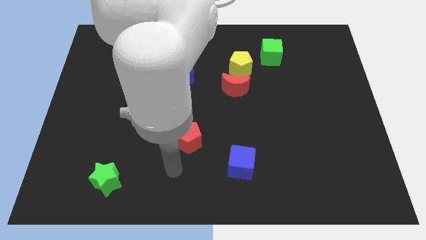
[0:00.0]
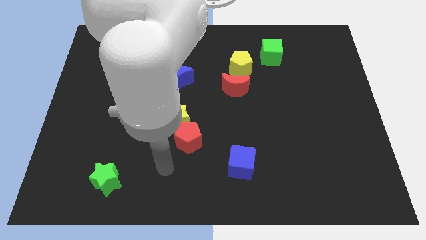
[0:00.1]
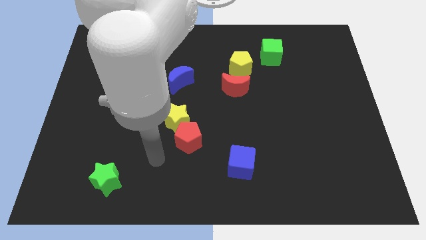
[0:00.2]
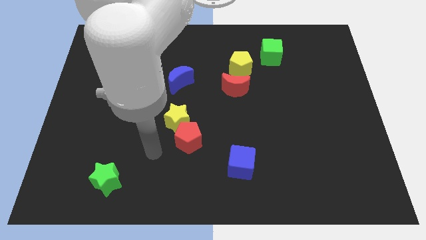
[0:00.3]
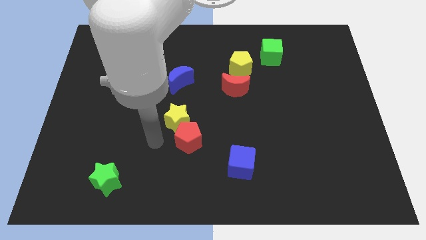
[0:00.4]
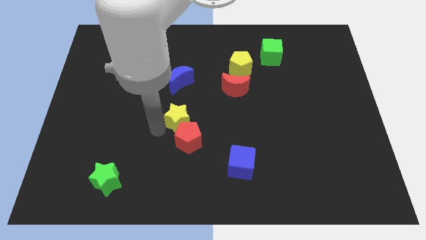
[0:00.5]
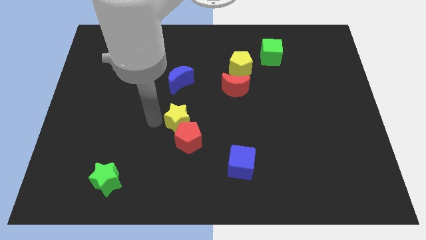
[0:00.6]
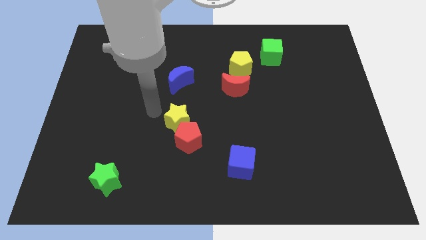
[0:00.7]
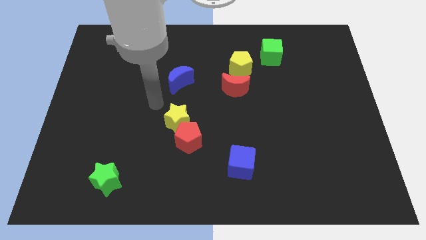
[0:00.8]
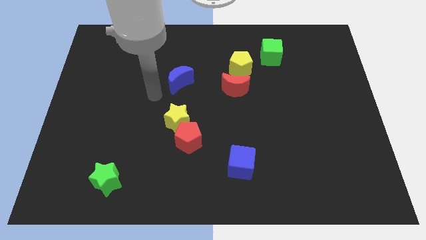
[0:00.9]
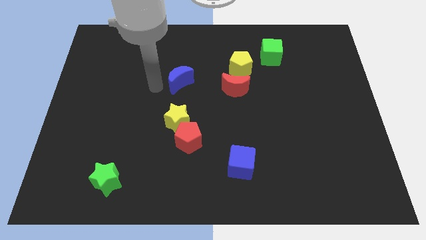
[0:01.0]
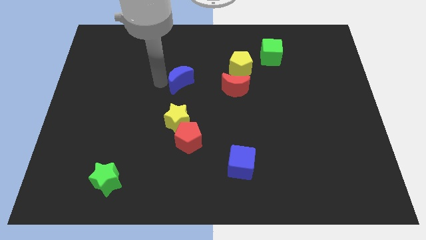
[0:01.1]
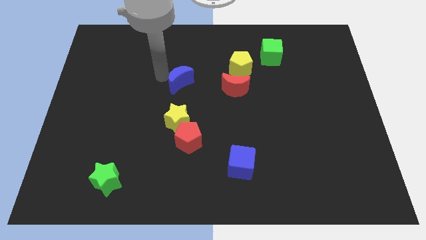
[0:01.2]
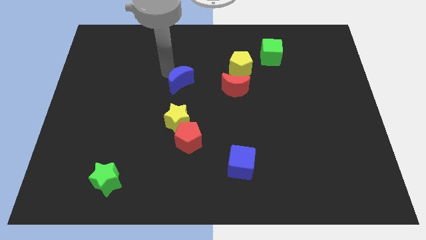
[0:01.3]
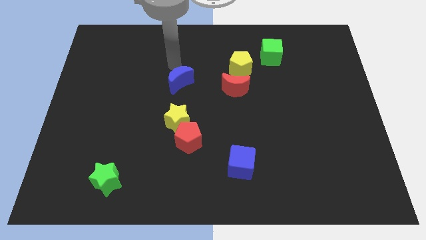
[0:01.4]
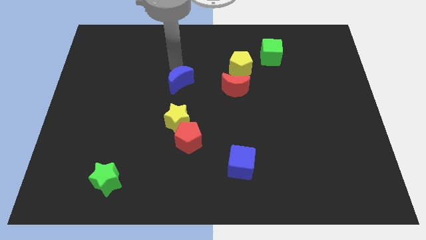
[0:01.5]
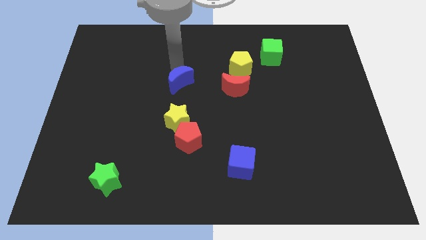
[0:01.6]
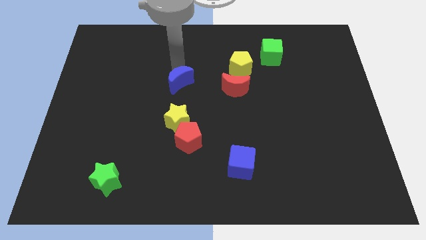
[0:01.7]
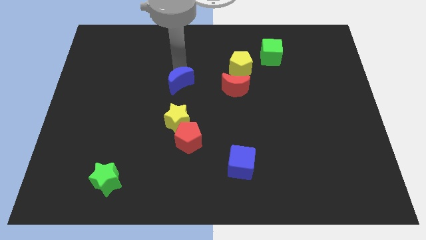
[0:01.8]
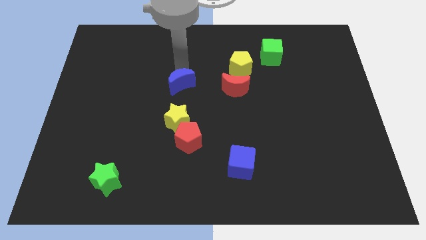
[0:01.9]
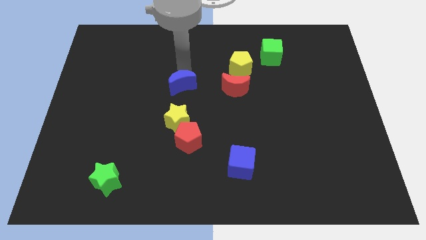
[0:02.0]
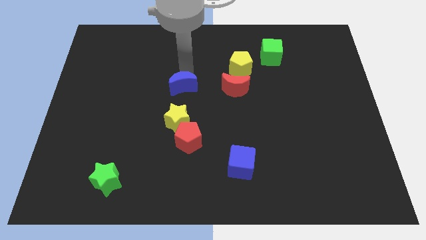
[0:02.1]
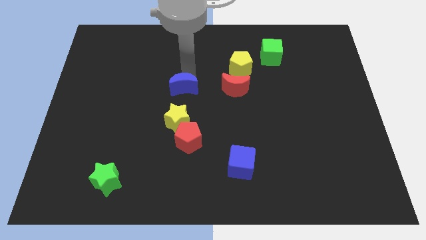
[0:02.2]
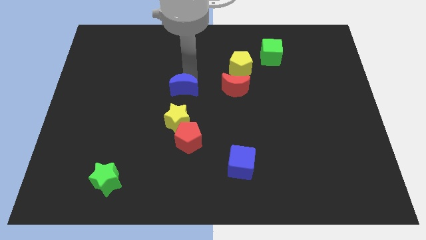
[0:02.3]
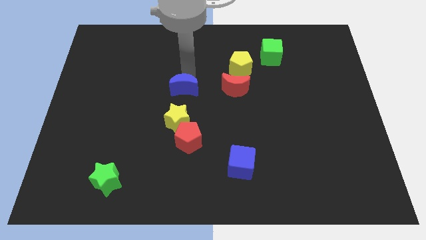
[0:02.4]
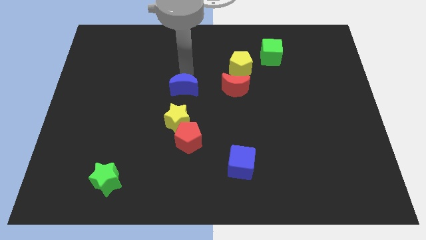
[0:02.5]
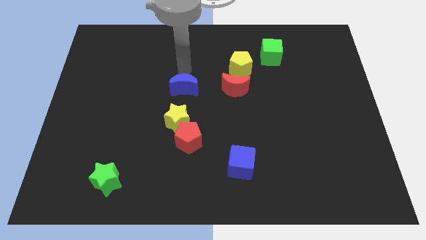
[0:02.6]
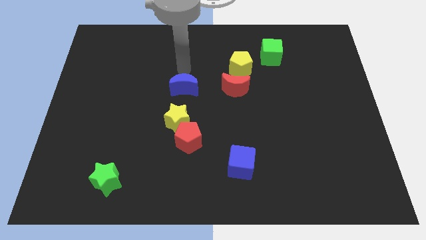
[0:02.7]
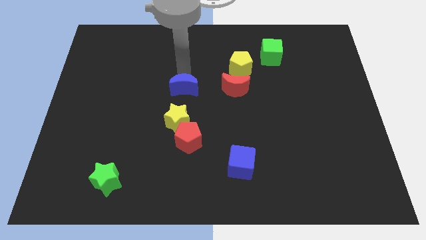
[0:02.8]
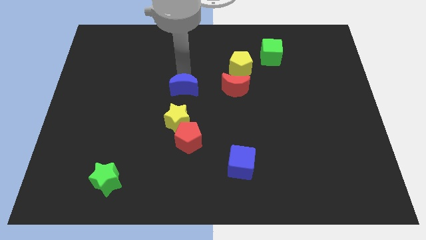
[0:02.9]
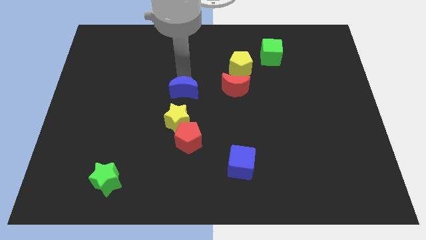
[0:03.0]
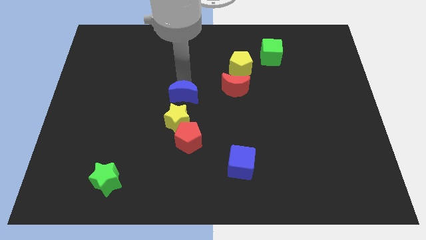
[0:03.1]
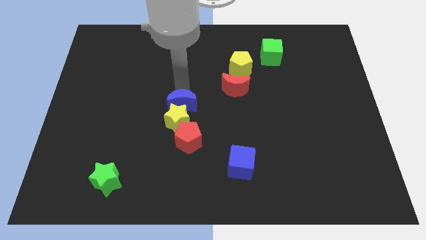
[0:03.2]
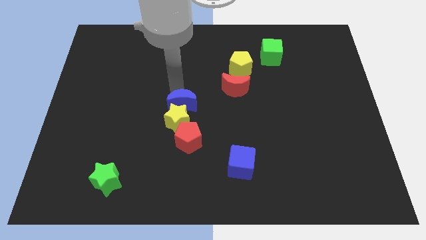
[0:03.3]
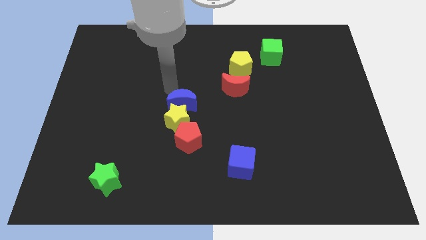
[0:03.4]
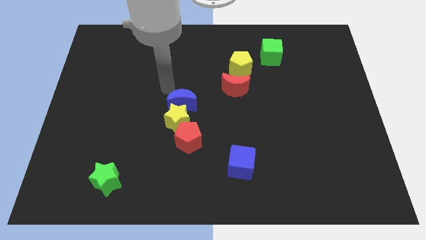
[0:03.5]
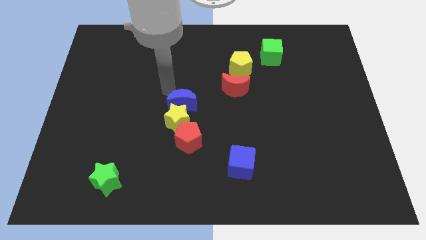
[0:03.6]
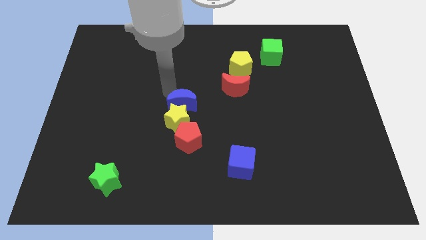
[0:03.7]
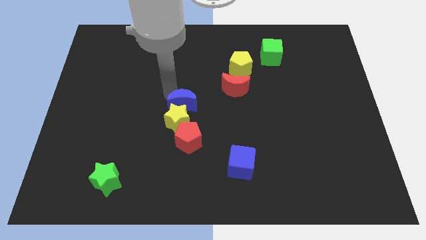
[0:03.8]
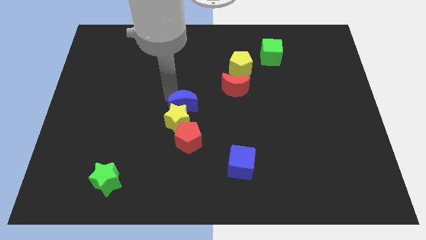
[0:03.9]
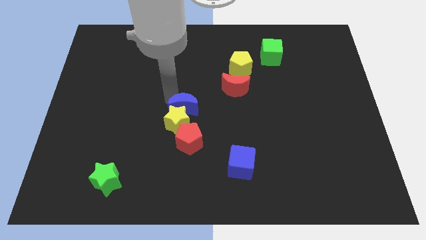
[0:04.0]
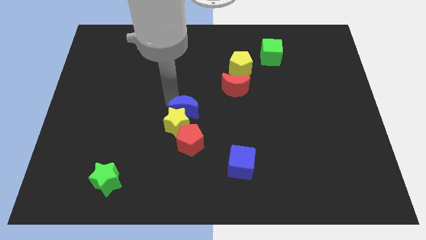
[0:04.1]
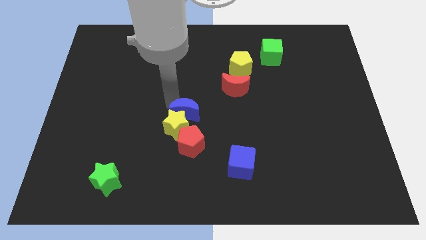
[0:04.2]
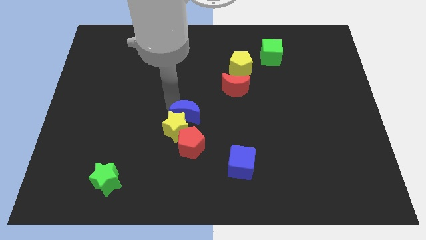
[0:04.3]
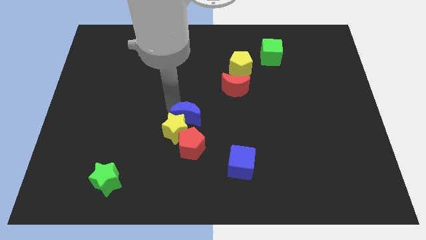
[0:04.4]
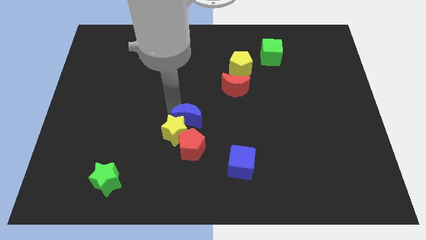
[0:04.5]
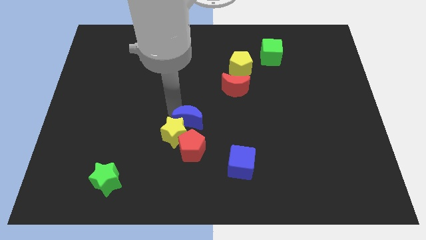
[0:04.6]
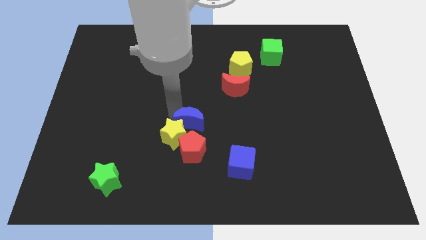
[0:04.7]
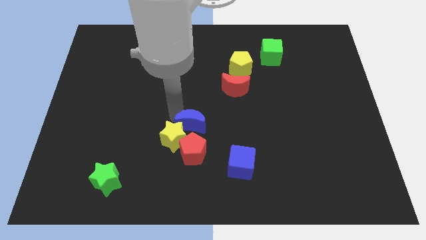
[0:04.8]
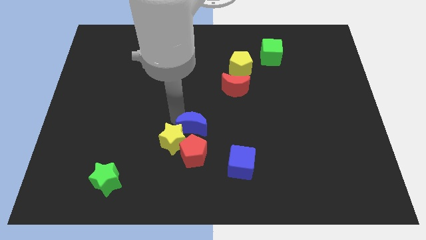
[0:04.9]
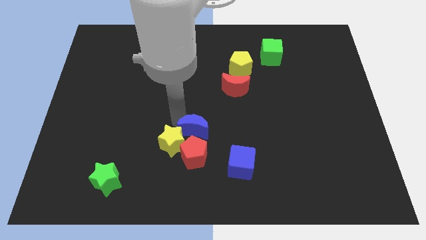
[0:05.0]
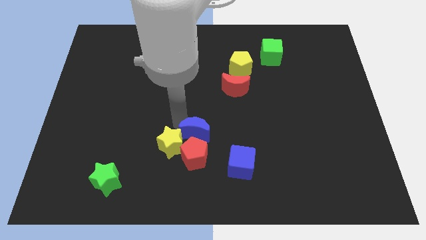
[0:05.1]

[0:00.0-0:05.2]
move the blue moon to the red pentagon
